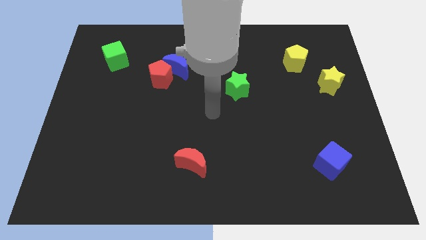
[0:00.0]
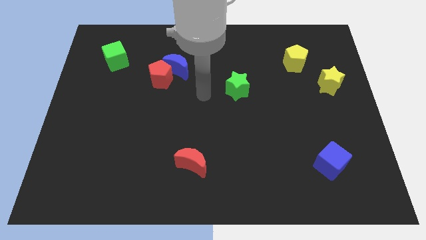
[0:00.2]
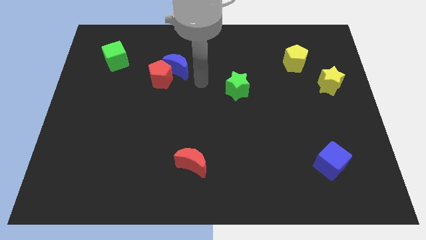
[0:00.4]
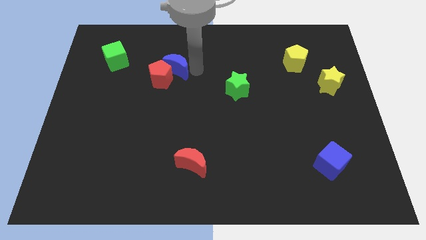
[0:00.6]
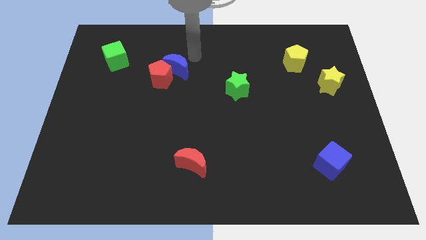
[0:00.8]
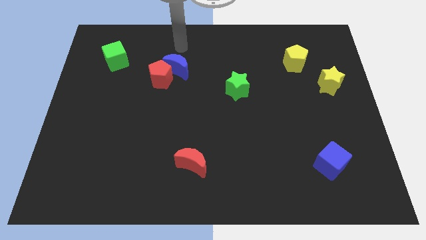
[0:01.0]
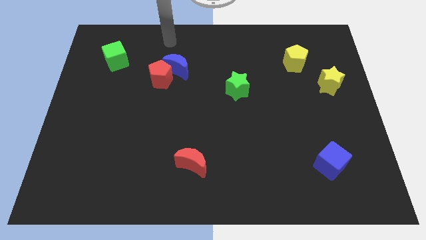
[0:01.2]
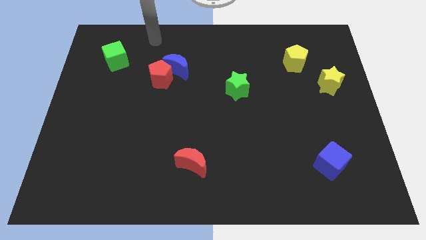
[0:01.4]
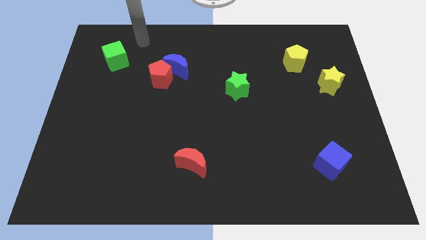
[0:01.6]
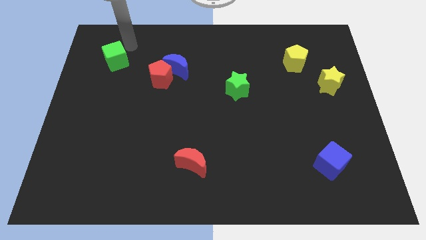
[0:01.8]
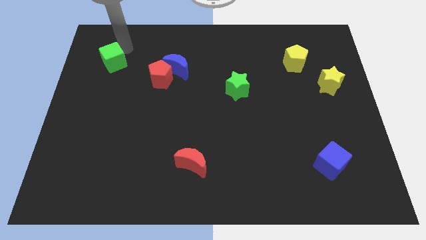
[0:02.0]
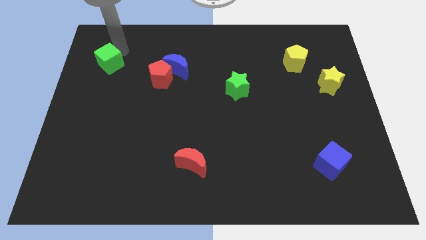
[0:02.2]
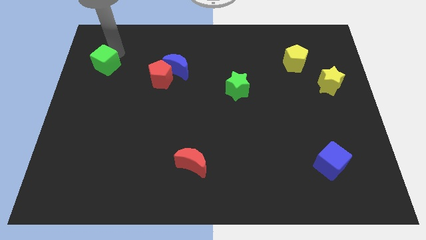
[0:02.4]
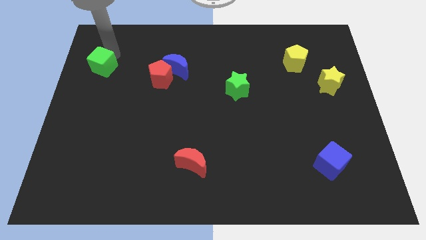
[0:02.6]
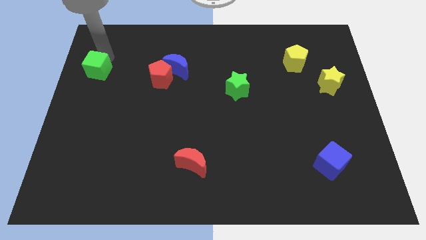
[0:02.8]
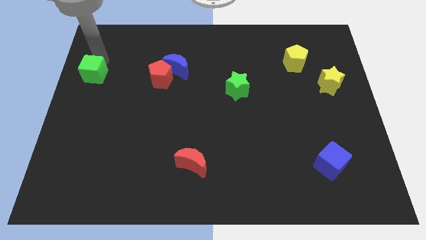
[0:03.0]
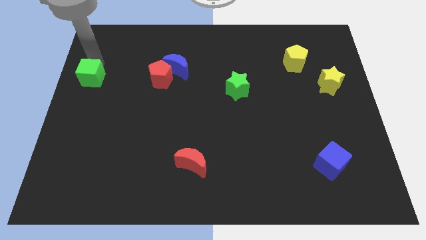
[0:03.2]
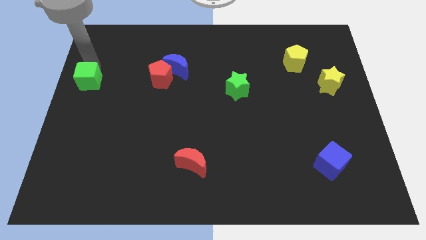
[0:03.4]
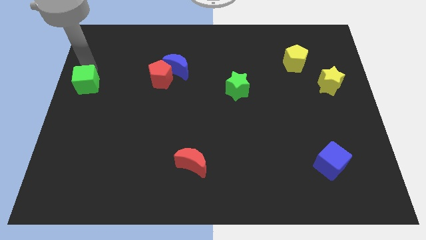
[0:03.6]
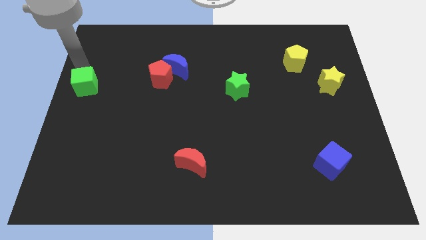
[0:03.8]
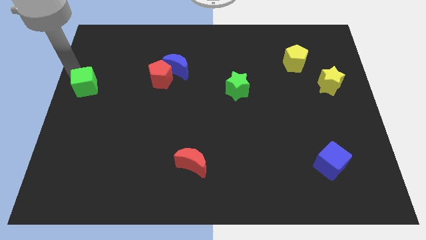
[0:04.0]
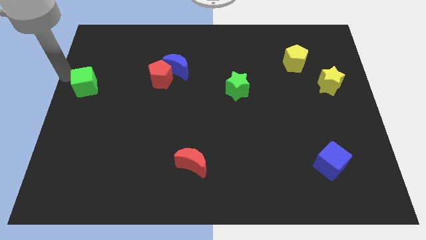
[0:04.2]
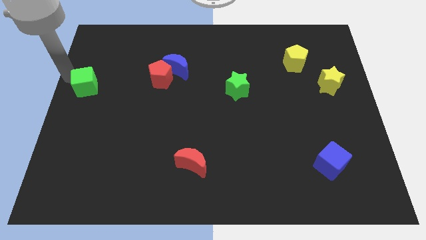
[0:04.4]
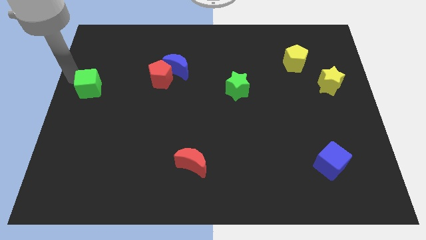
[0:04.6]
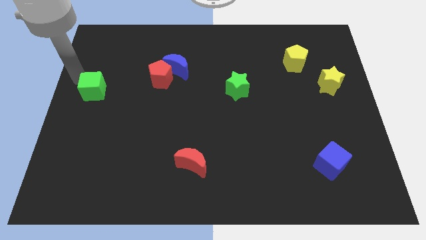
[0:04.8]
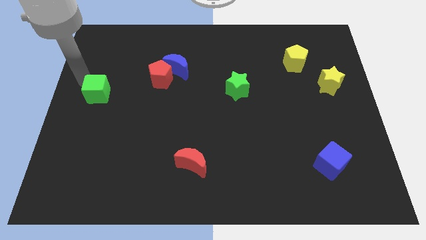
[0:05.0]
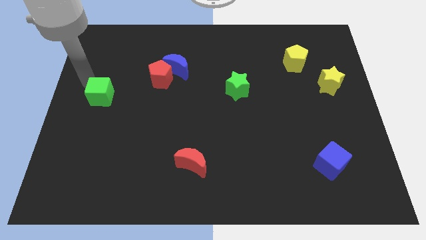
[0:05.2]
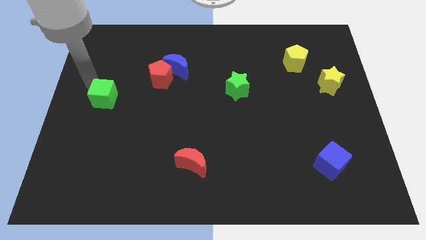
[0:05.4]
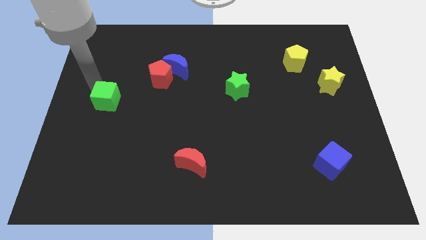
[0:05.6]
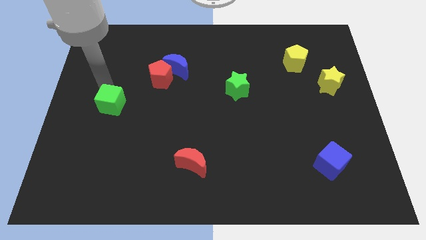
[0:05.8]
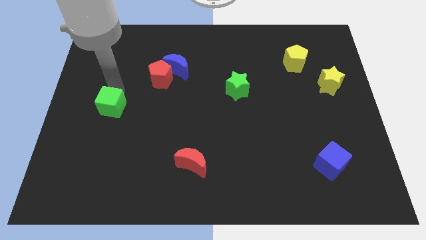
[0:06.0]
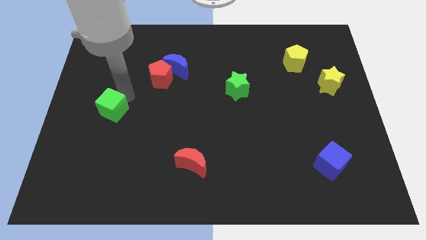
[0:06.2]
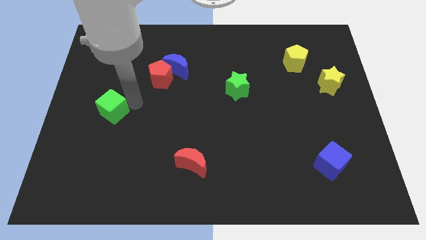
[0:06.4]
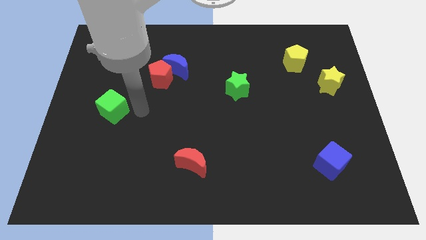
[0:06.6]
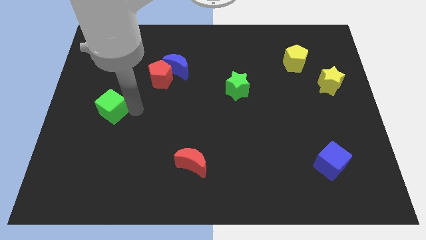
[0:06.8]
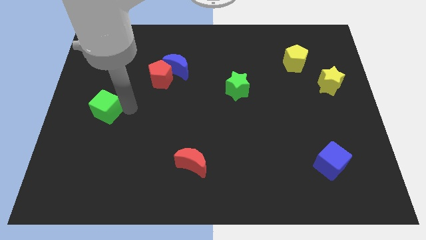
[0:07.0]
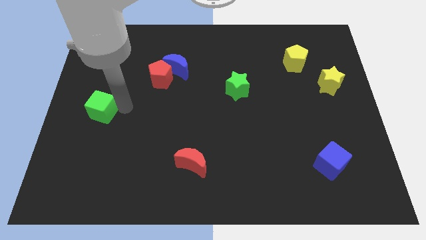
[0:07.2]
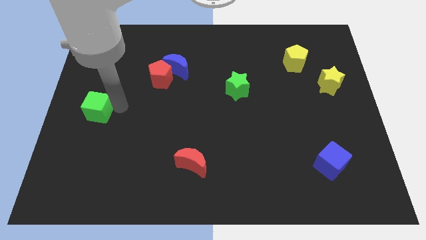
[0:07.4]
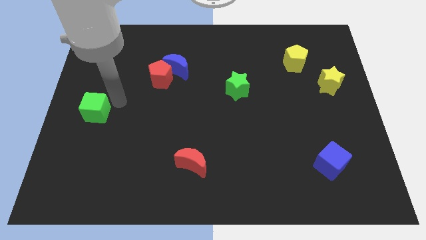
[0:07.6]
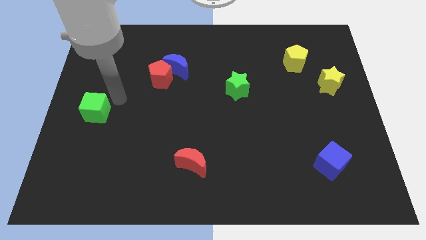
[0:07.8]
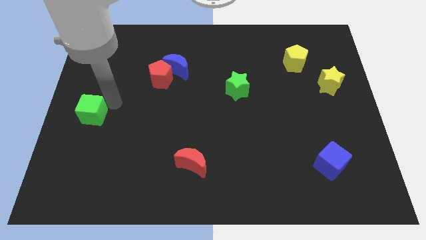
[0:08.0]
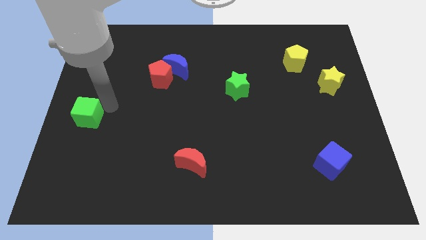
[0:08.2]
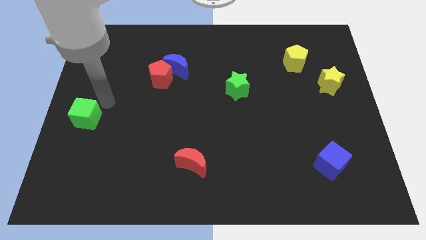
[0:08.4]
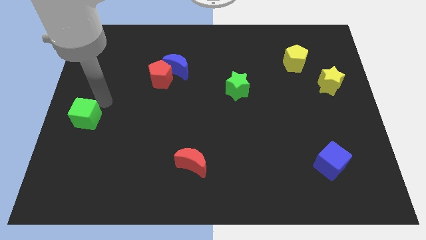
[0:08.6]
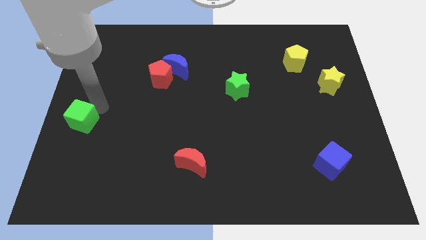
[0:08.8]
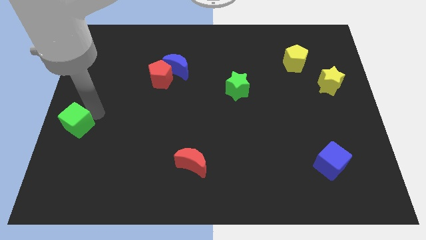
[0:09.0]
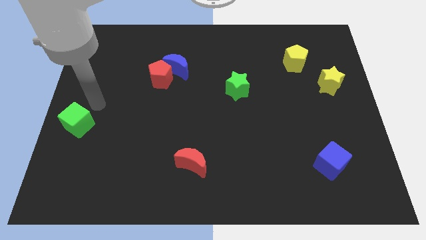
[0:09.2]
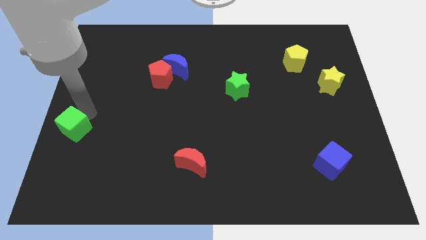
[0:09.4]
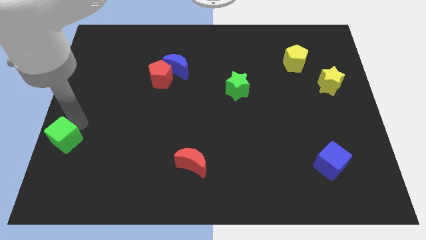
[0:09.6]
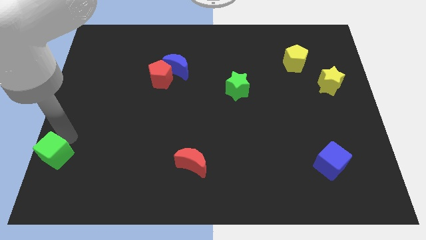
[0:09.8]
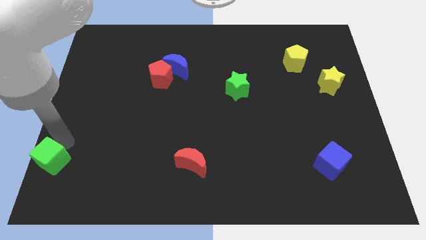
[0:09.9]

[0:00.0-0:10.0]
move the green cube to the lower left corner

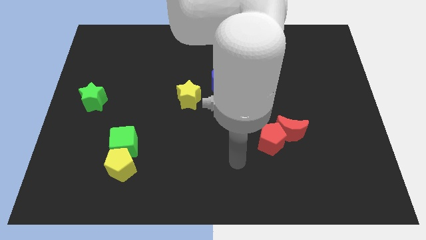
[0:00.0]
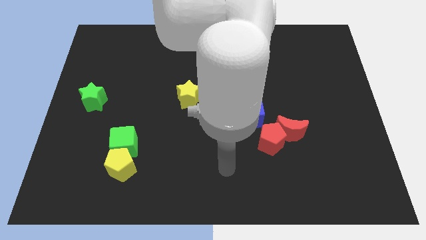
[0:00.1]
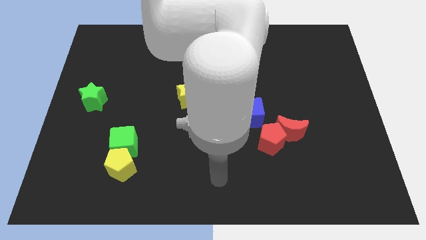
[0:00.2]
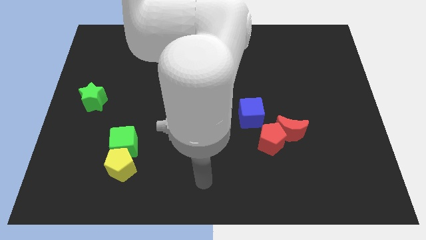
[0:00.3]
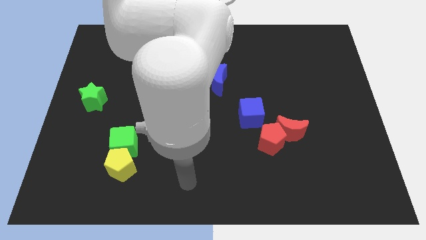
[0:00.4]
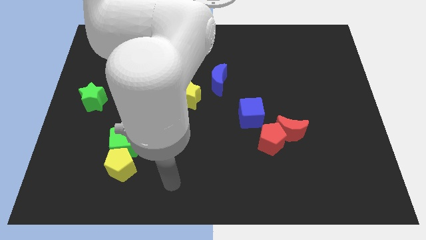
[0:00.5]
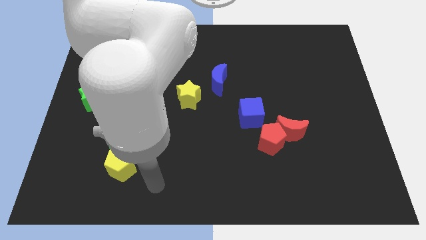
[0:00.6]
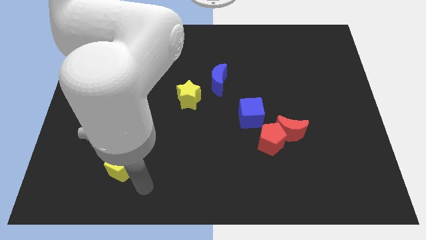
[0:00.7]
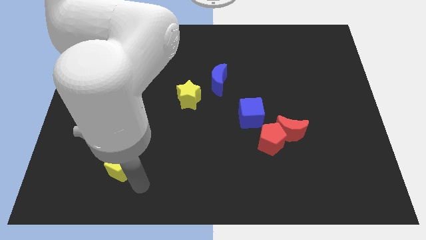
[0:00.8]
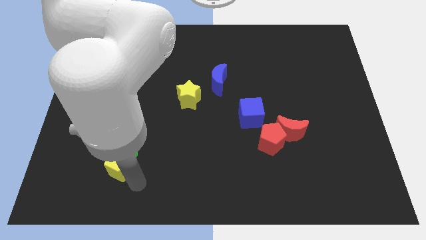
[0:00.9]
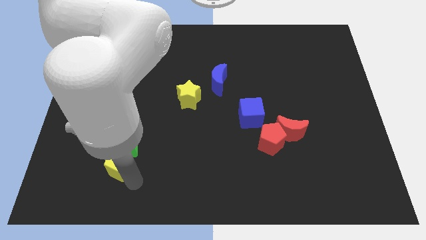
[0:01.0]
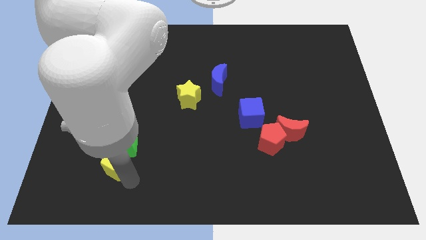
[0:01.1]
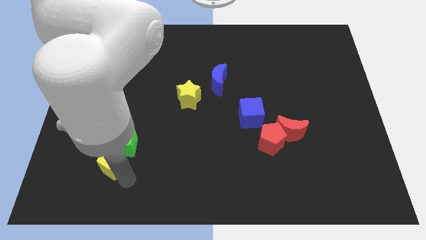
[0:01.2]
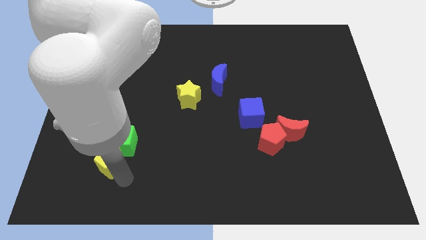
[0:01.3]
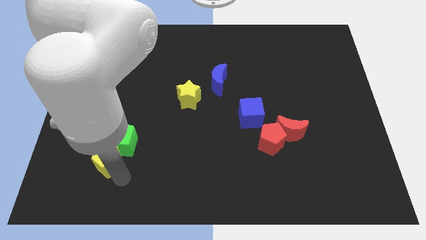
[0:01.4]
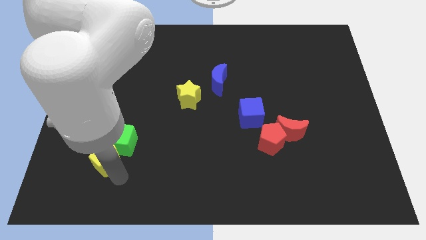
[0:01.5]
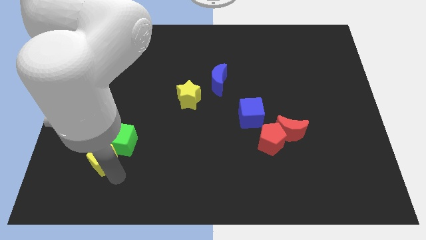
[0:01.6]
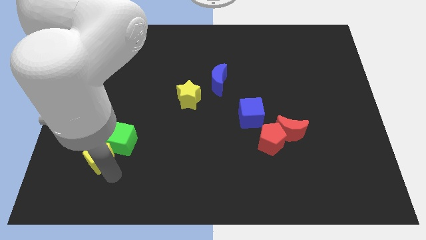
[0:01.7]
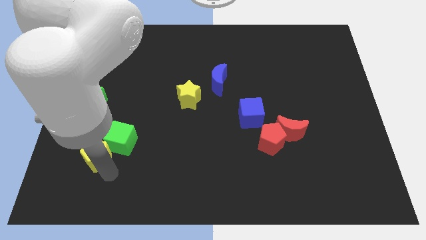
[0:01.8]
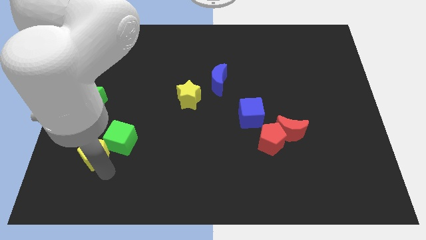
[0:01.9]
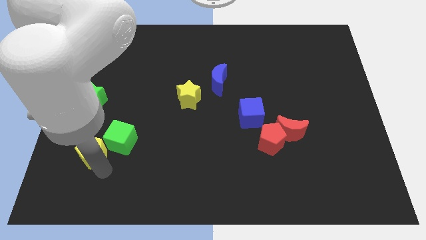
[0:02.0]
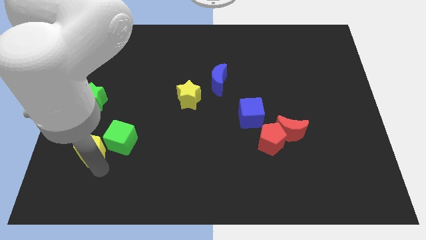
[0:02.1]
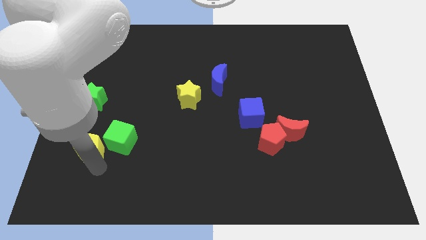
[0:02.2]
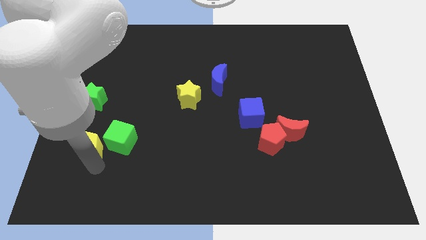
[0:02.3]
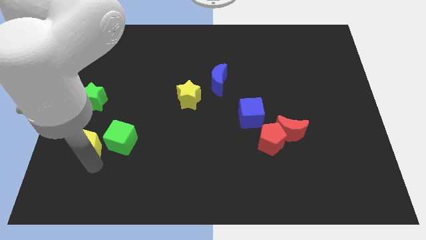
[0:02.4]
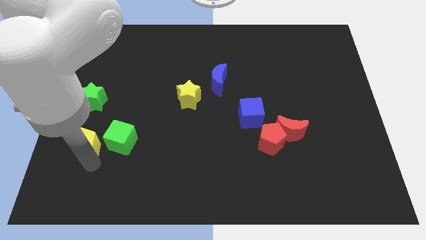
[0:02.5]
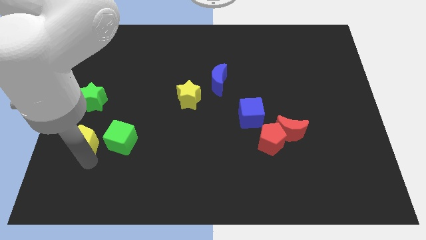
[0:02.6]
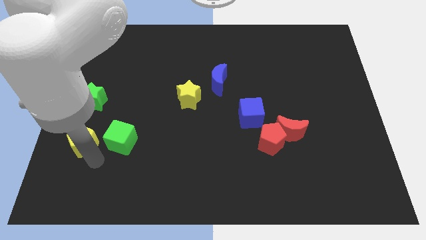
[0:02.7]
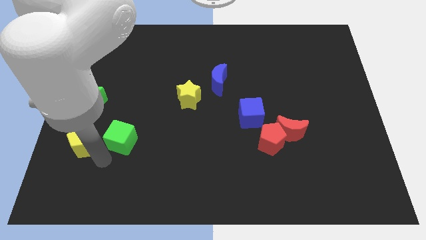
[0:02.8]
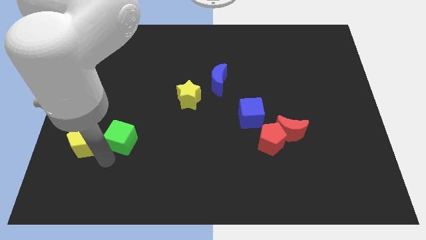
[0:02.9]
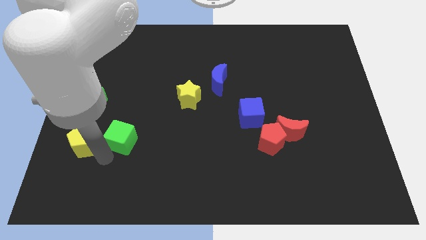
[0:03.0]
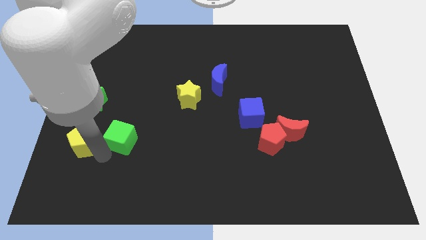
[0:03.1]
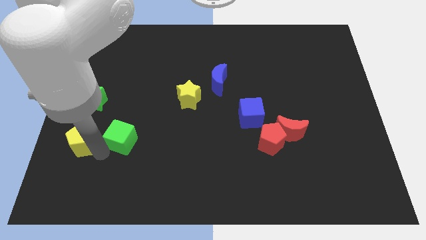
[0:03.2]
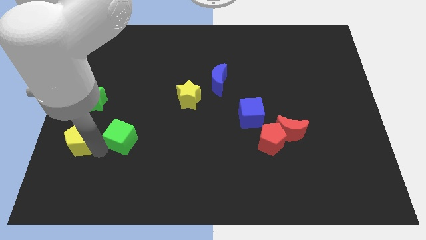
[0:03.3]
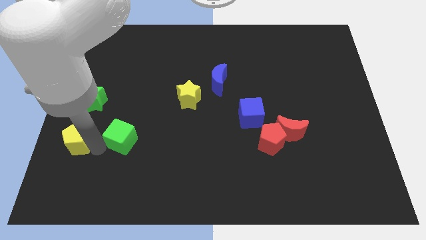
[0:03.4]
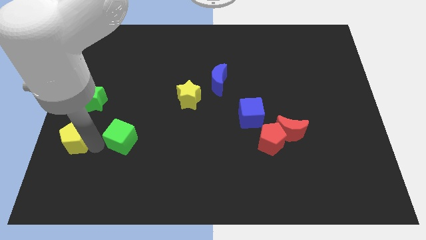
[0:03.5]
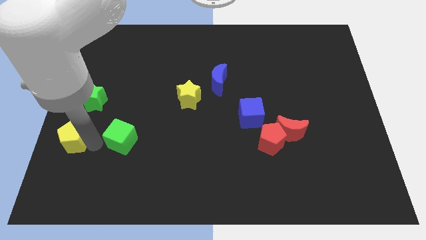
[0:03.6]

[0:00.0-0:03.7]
push the yellow pentagon to the left side of the board
